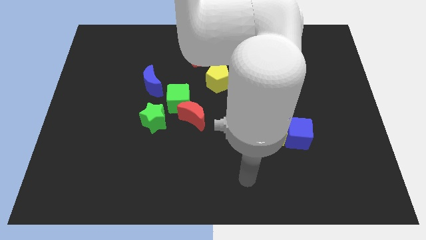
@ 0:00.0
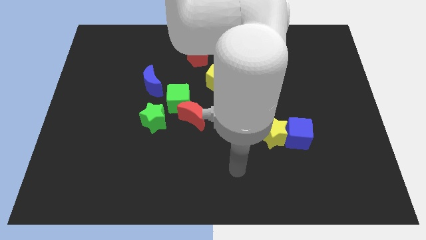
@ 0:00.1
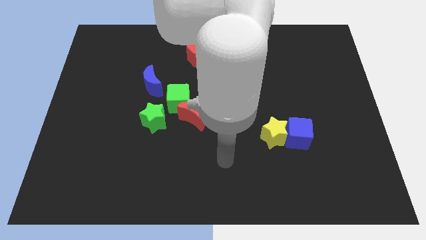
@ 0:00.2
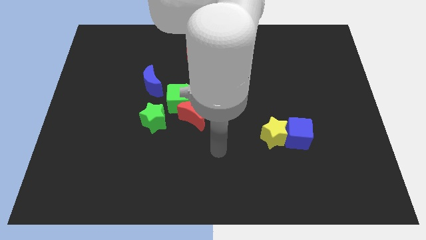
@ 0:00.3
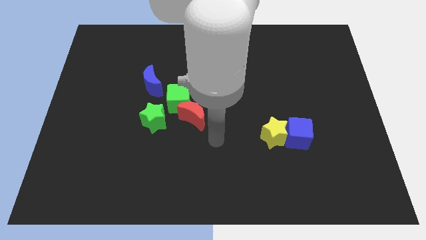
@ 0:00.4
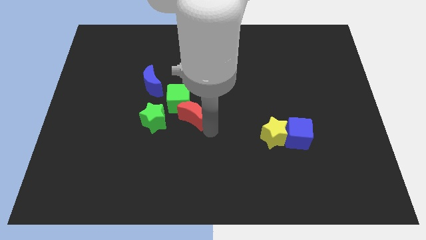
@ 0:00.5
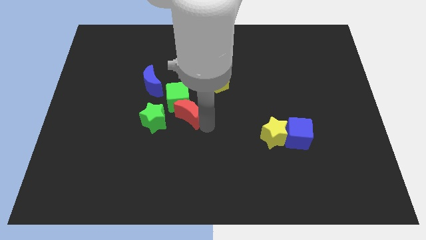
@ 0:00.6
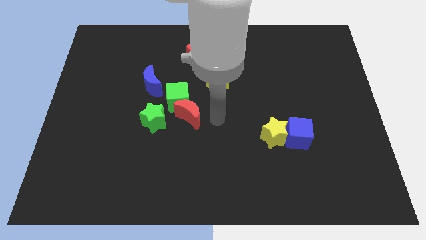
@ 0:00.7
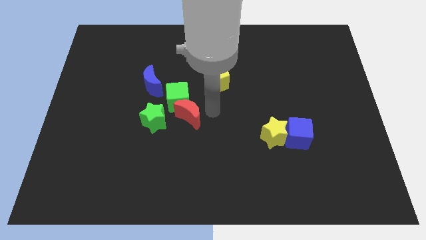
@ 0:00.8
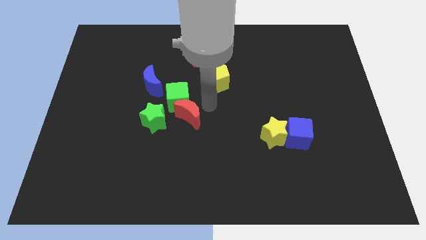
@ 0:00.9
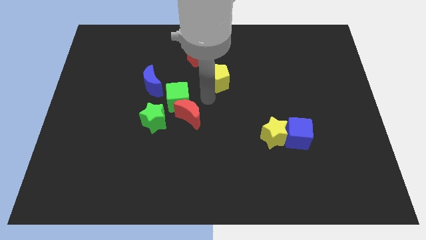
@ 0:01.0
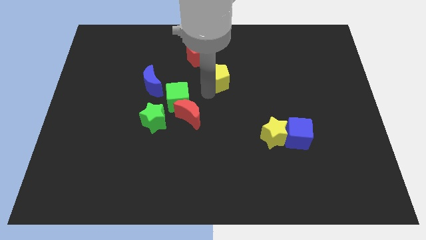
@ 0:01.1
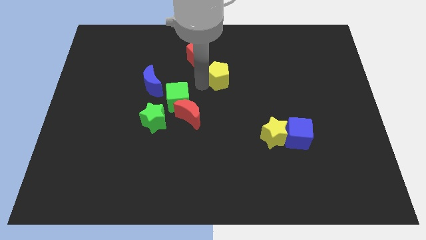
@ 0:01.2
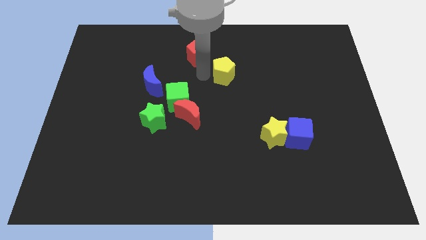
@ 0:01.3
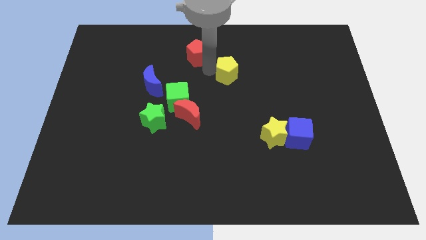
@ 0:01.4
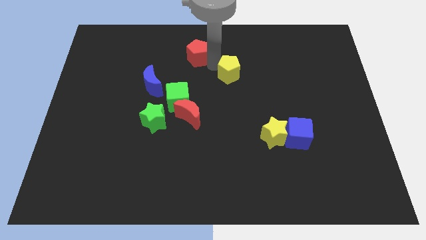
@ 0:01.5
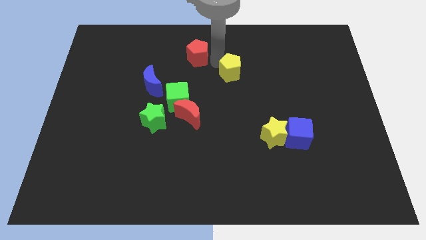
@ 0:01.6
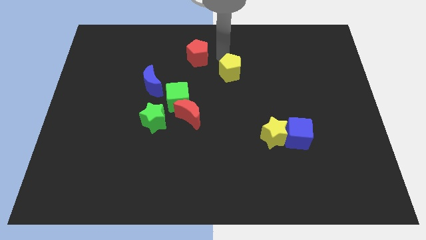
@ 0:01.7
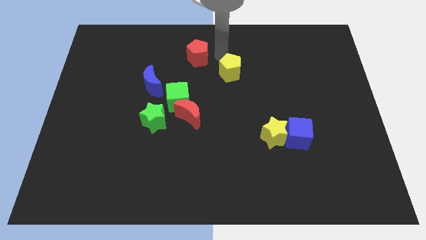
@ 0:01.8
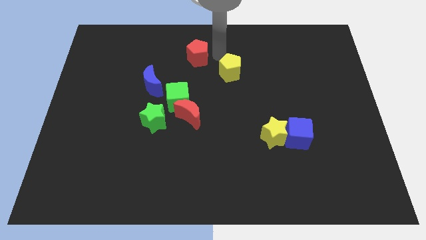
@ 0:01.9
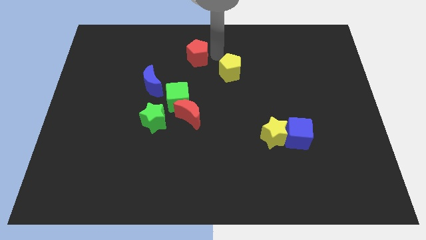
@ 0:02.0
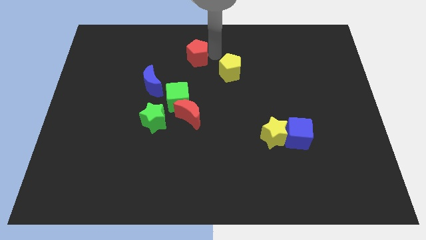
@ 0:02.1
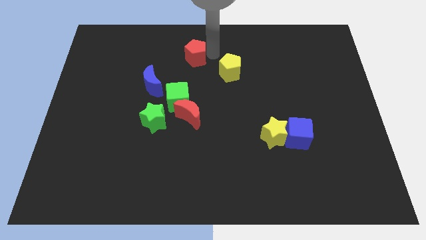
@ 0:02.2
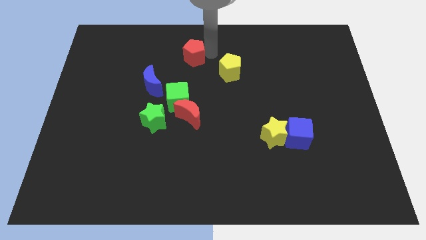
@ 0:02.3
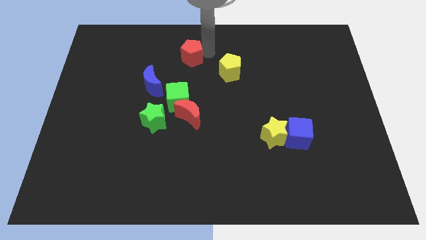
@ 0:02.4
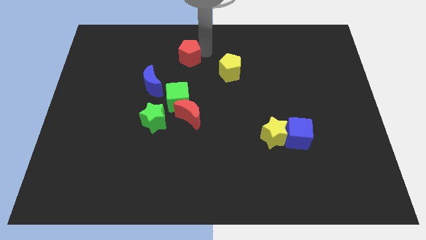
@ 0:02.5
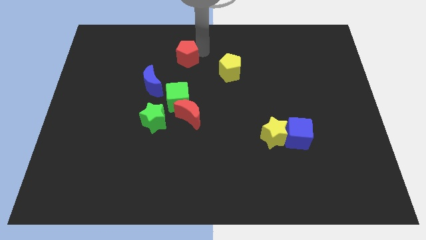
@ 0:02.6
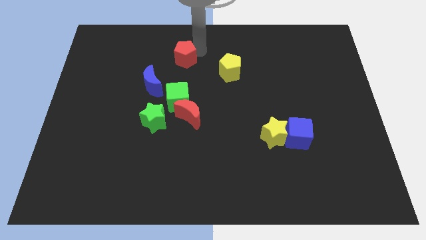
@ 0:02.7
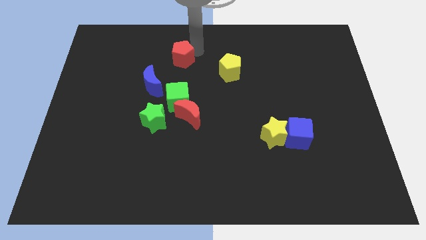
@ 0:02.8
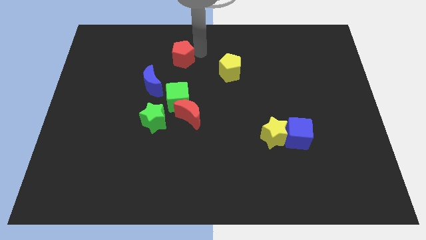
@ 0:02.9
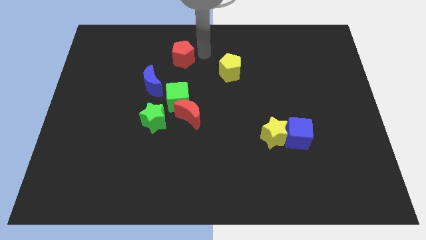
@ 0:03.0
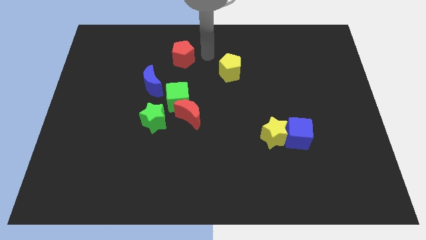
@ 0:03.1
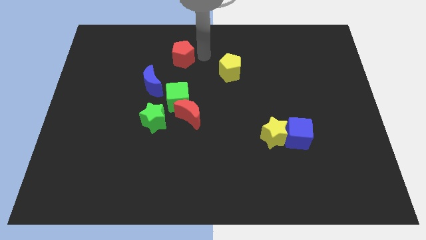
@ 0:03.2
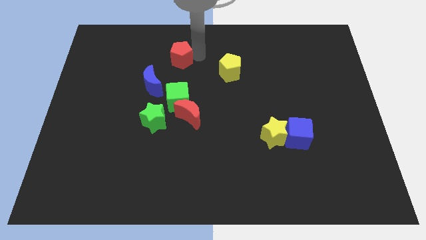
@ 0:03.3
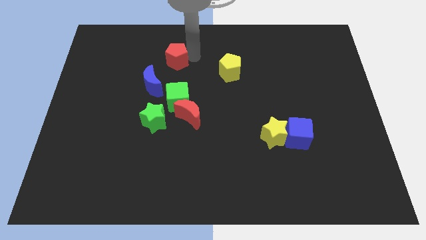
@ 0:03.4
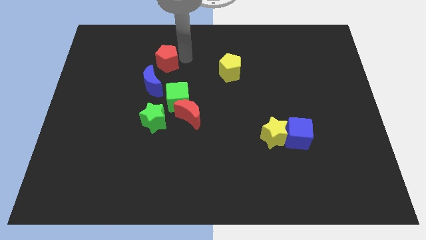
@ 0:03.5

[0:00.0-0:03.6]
slightly push the red pentagon to the left

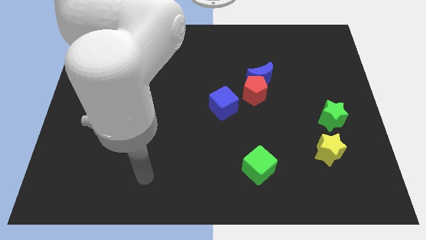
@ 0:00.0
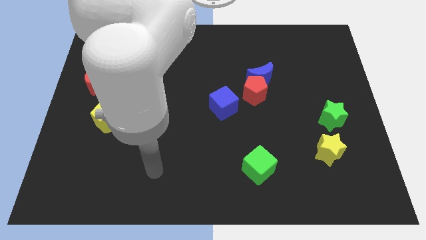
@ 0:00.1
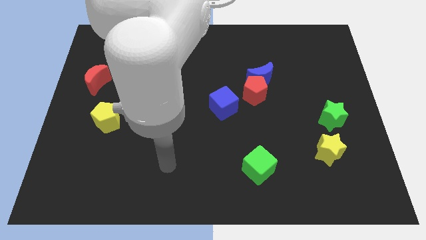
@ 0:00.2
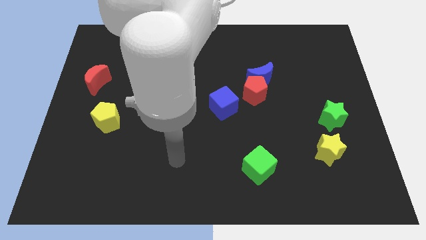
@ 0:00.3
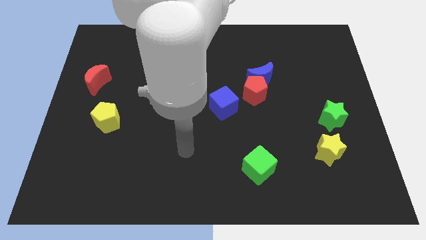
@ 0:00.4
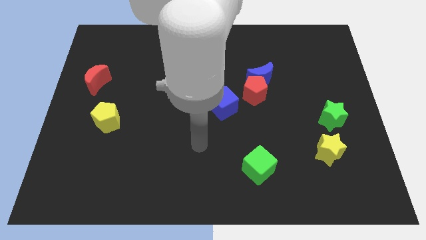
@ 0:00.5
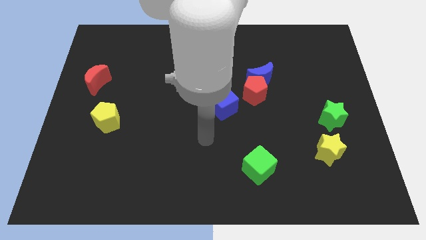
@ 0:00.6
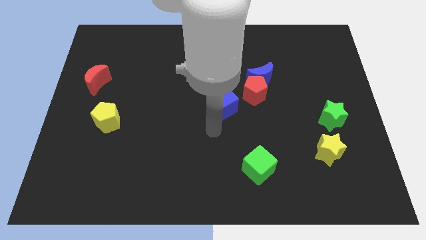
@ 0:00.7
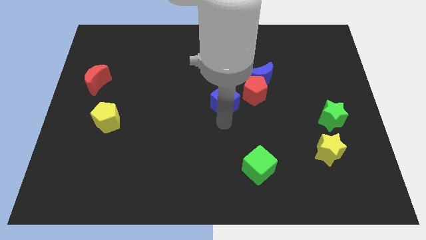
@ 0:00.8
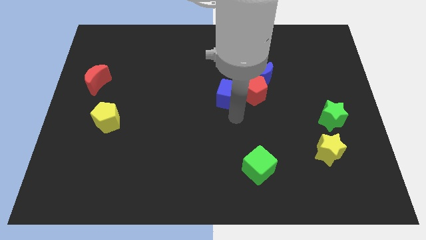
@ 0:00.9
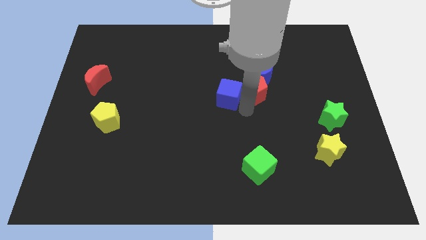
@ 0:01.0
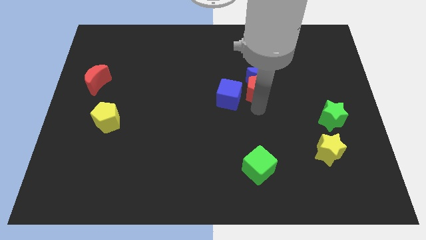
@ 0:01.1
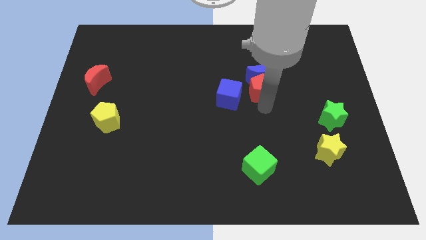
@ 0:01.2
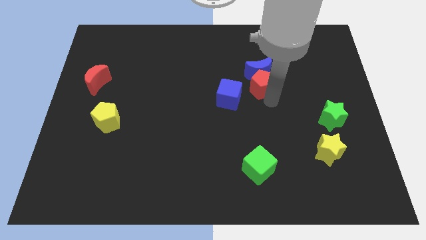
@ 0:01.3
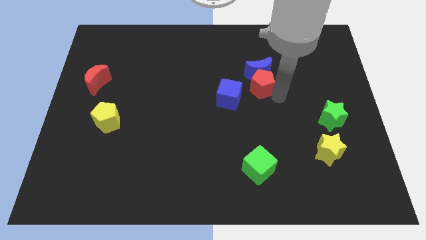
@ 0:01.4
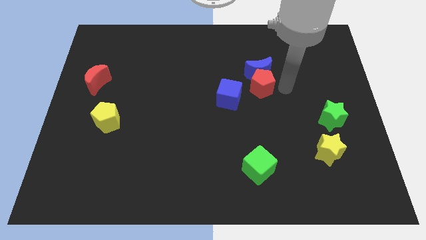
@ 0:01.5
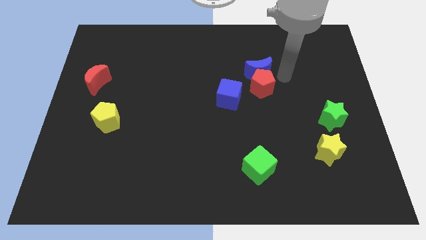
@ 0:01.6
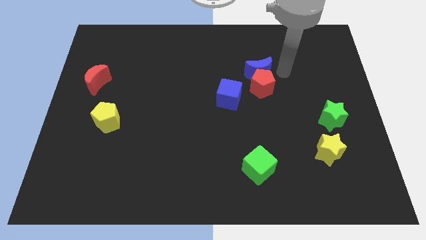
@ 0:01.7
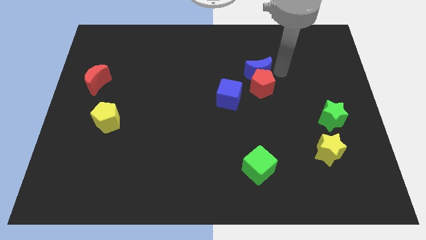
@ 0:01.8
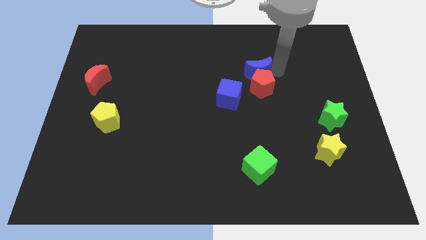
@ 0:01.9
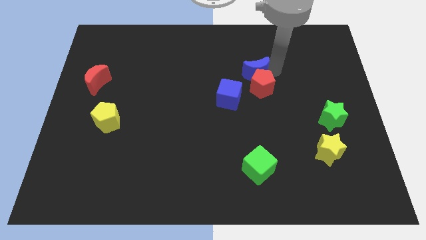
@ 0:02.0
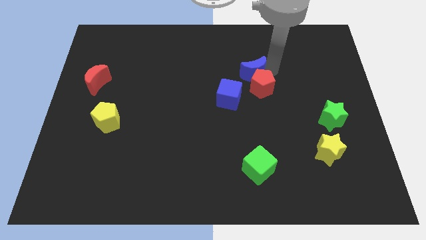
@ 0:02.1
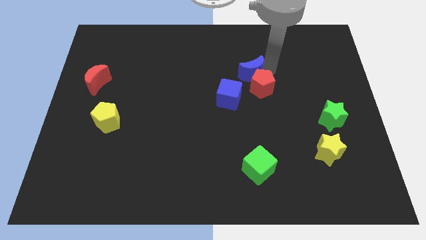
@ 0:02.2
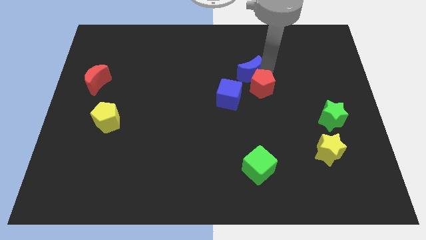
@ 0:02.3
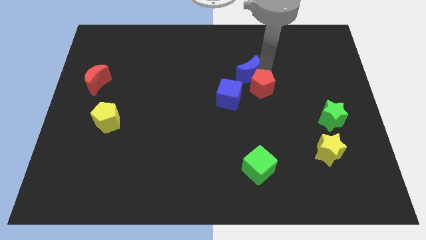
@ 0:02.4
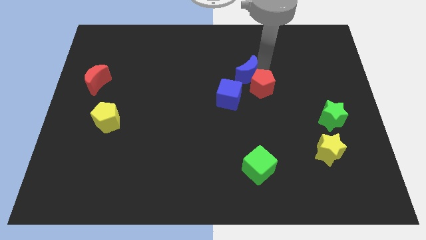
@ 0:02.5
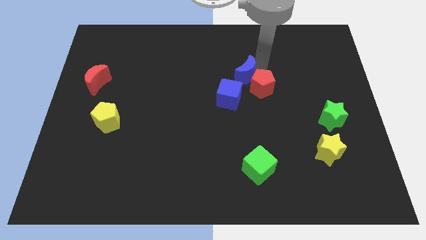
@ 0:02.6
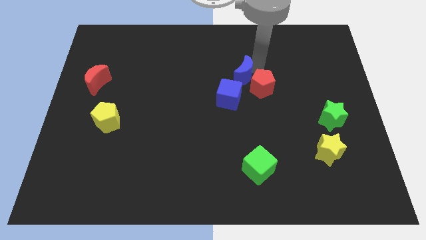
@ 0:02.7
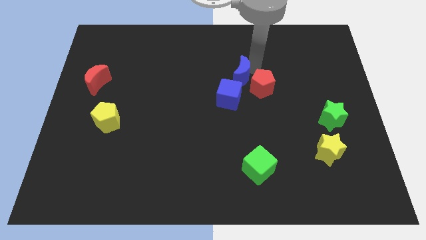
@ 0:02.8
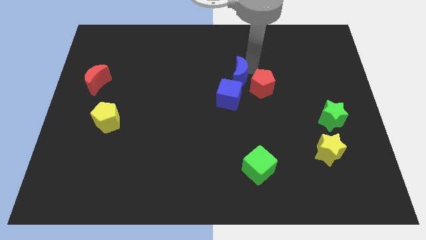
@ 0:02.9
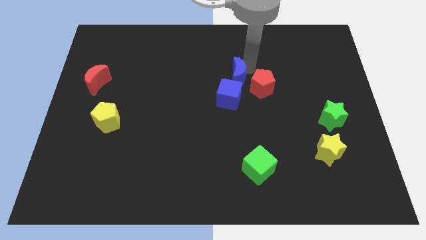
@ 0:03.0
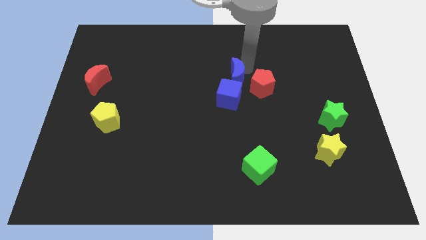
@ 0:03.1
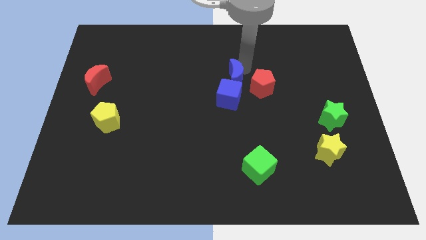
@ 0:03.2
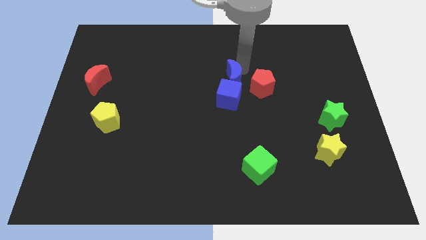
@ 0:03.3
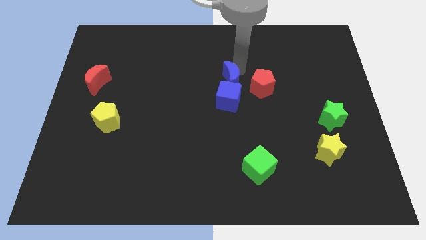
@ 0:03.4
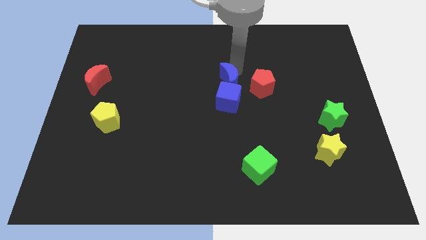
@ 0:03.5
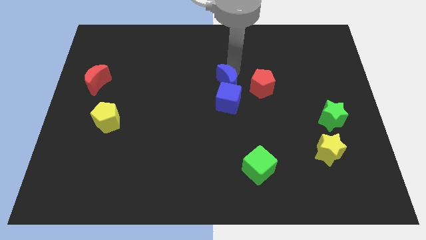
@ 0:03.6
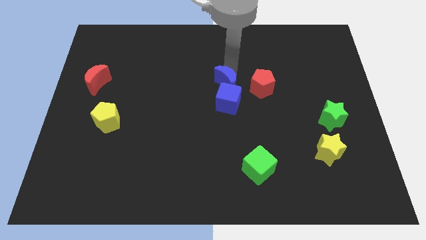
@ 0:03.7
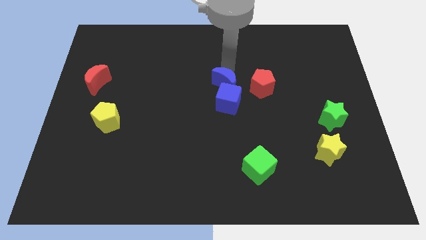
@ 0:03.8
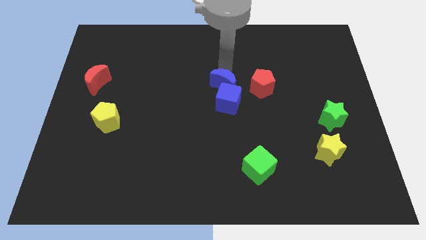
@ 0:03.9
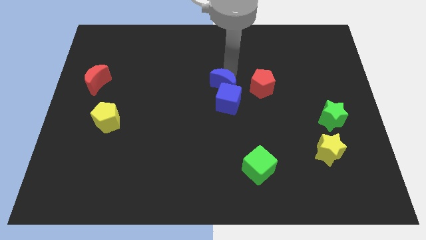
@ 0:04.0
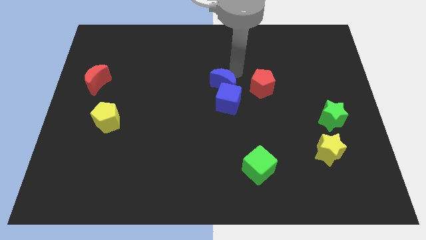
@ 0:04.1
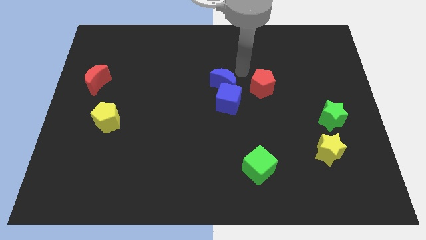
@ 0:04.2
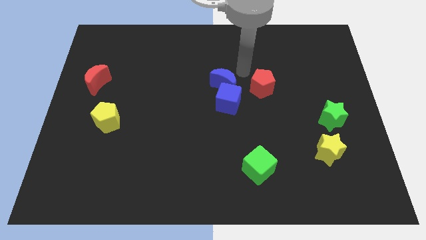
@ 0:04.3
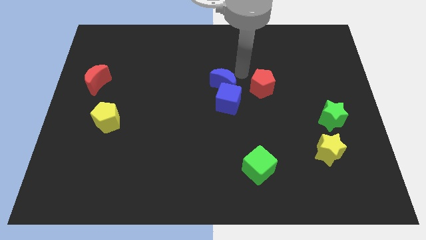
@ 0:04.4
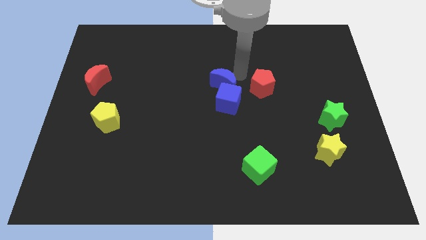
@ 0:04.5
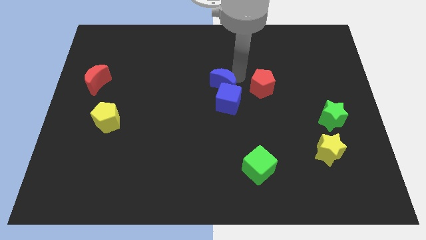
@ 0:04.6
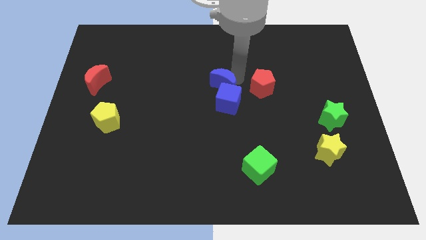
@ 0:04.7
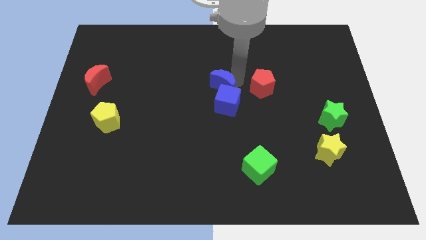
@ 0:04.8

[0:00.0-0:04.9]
move the blue moon a little bit diagonally downwards and to the left
